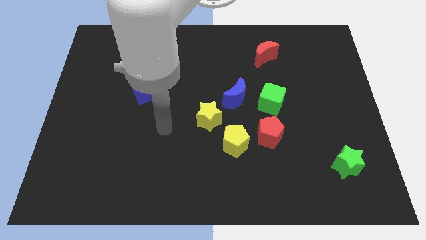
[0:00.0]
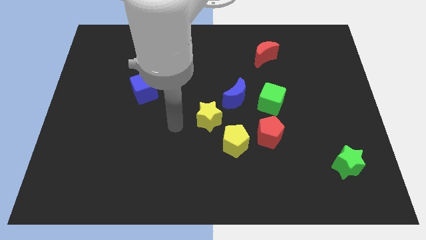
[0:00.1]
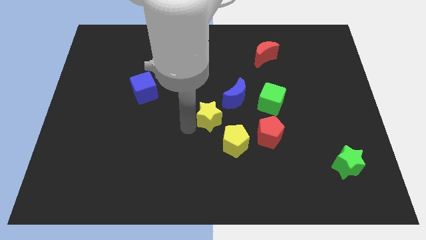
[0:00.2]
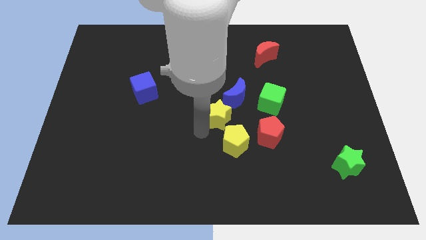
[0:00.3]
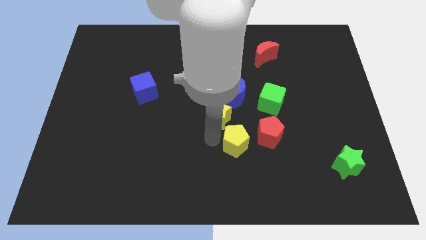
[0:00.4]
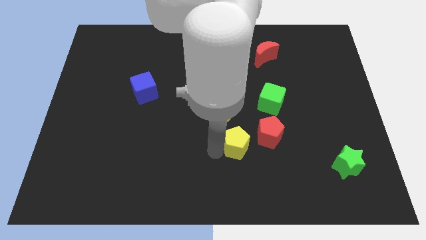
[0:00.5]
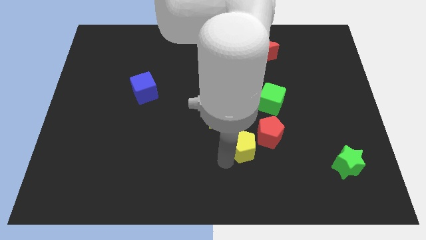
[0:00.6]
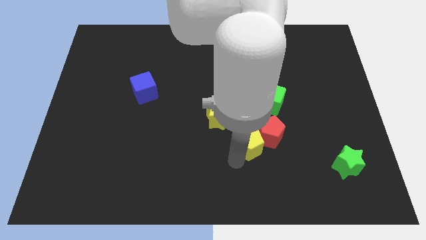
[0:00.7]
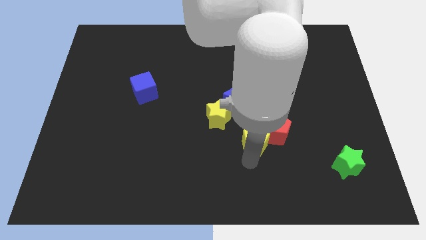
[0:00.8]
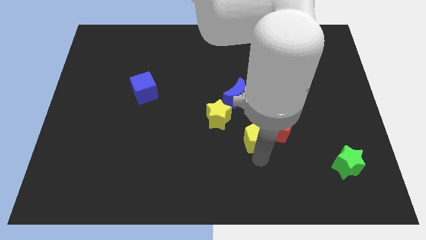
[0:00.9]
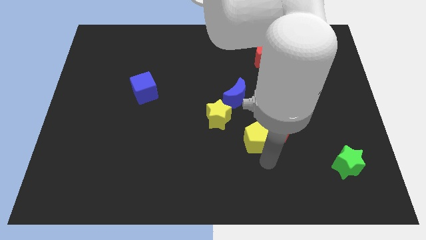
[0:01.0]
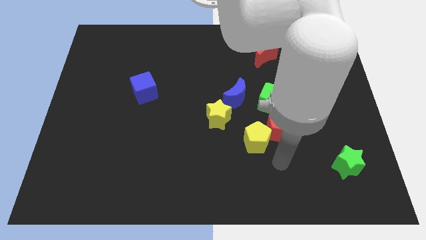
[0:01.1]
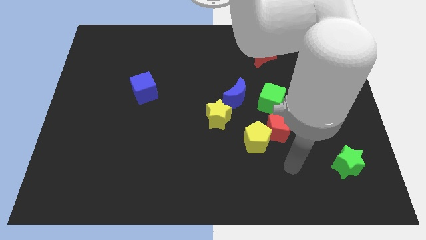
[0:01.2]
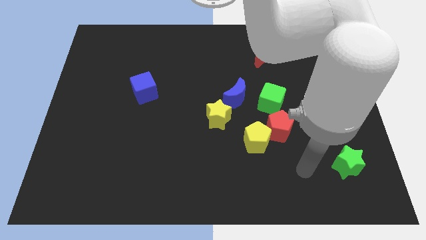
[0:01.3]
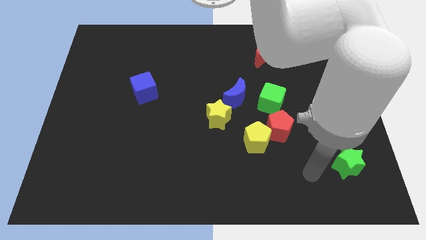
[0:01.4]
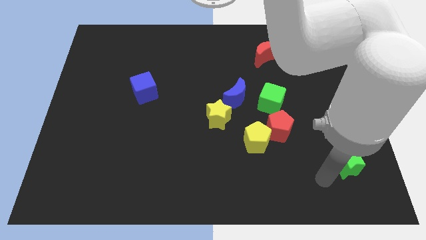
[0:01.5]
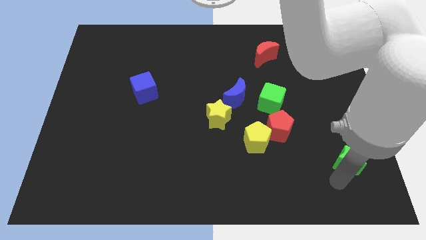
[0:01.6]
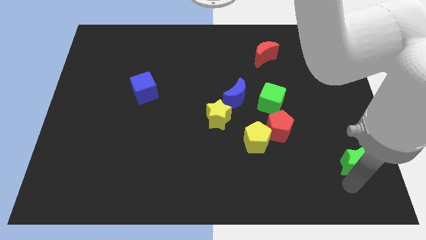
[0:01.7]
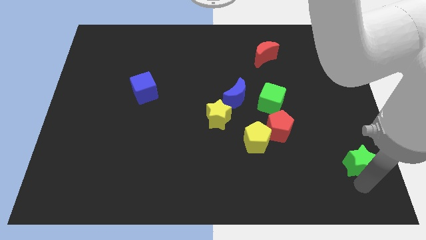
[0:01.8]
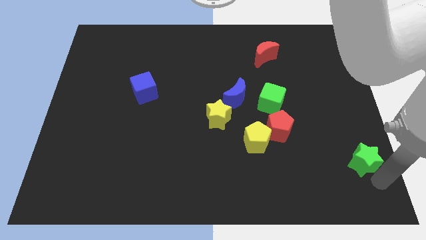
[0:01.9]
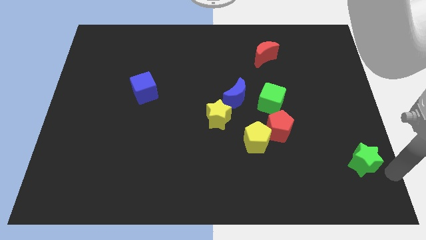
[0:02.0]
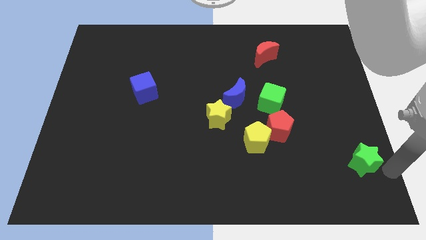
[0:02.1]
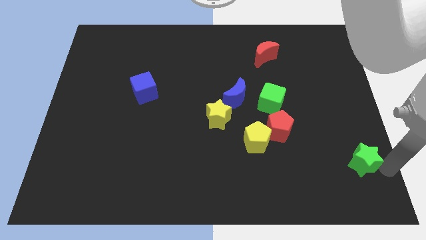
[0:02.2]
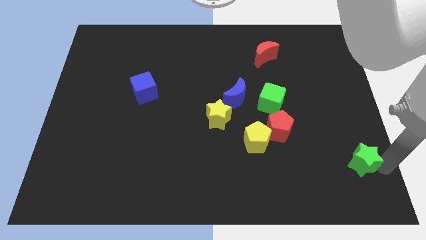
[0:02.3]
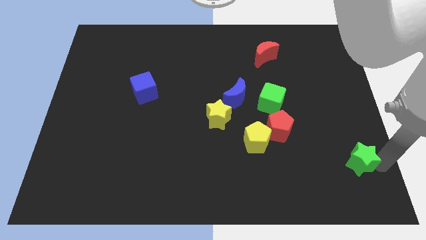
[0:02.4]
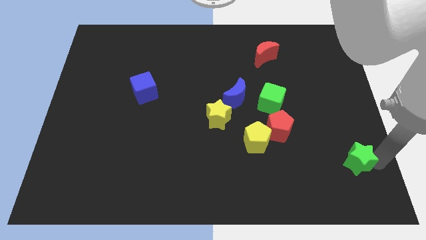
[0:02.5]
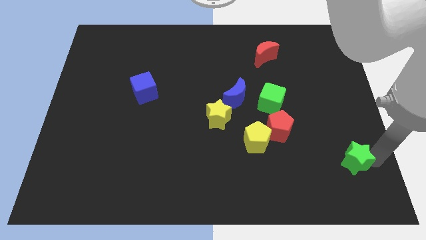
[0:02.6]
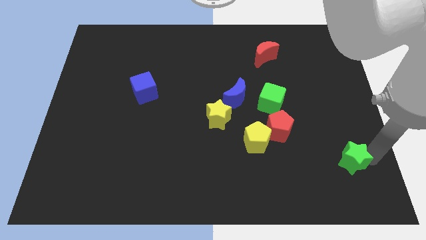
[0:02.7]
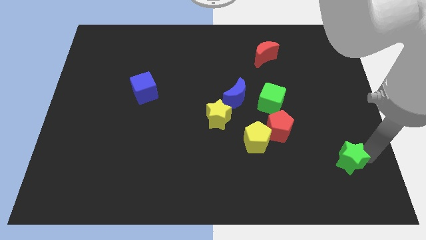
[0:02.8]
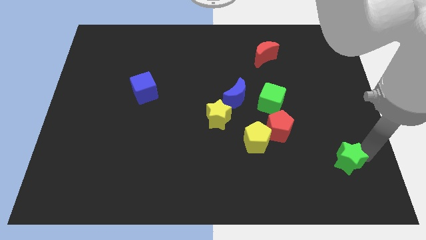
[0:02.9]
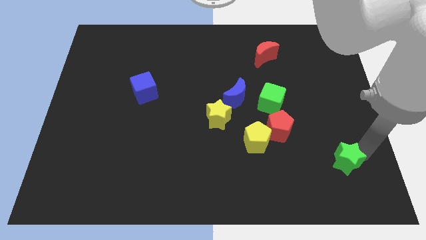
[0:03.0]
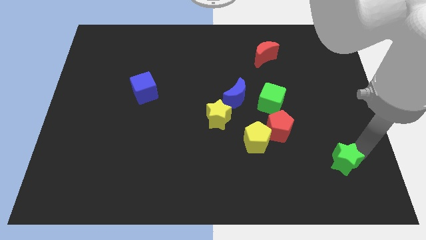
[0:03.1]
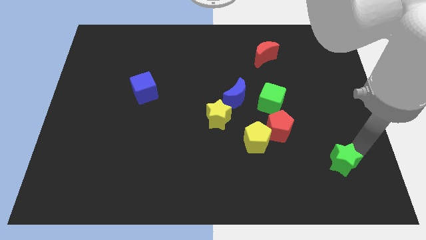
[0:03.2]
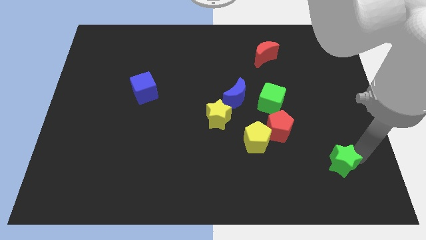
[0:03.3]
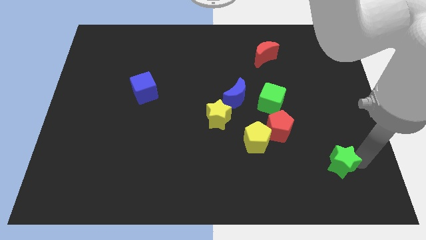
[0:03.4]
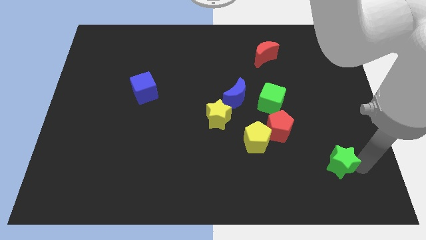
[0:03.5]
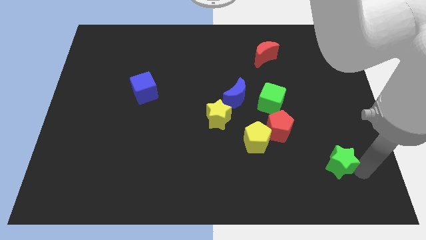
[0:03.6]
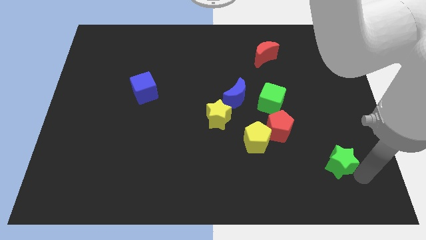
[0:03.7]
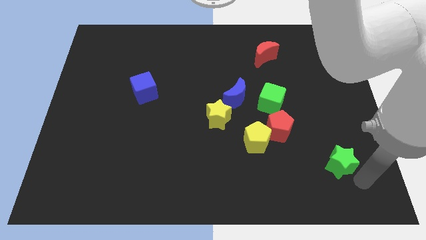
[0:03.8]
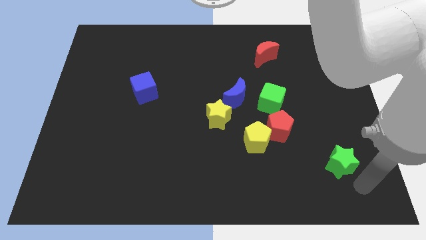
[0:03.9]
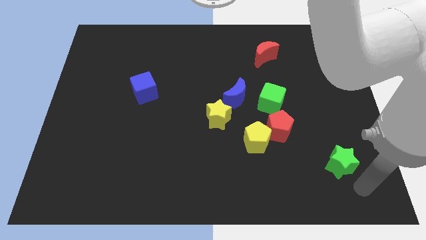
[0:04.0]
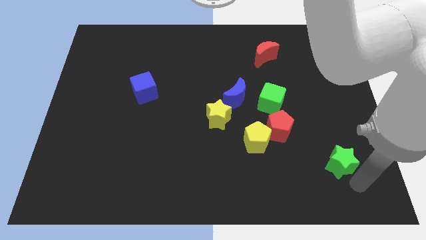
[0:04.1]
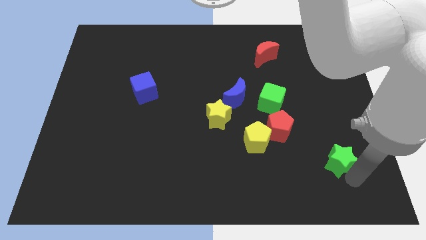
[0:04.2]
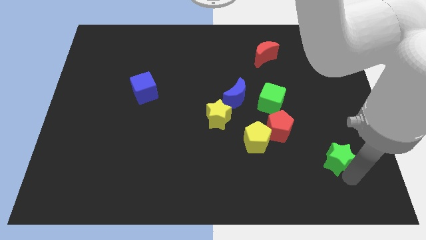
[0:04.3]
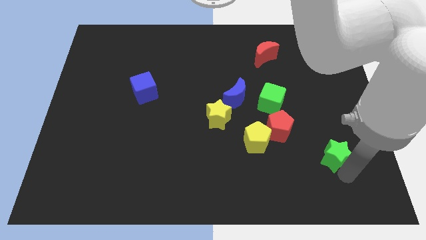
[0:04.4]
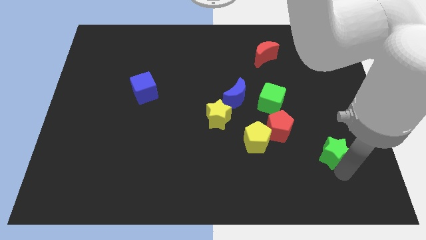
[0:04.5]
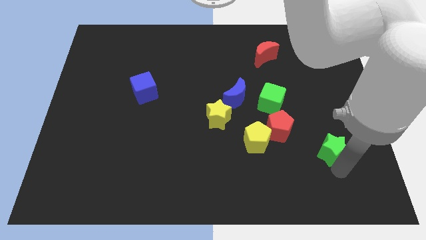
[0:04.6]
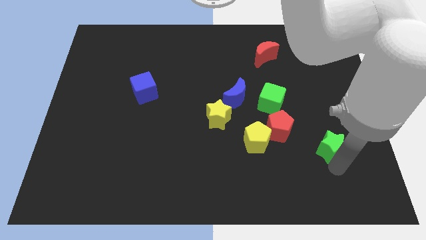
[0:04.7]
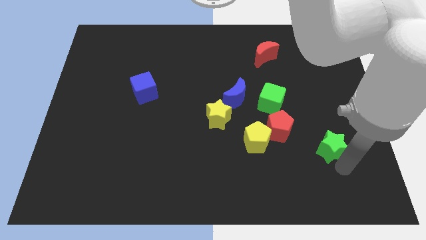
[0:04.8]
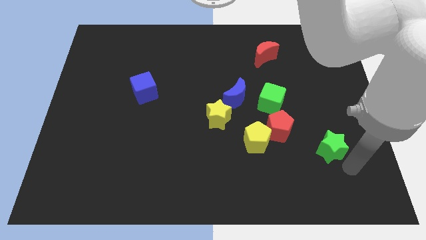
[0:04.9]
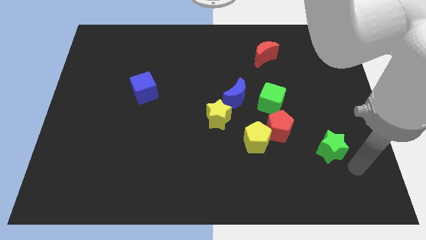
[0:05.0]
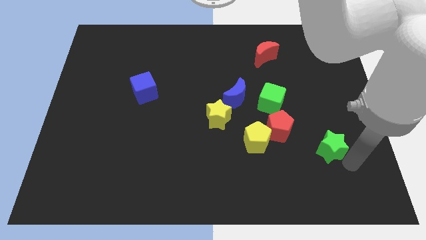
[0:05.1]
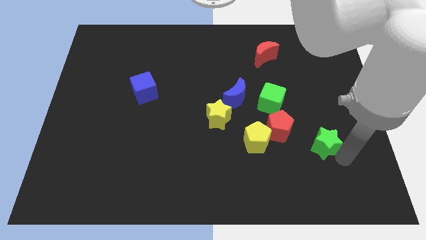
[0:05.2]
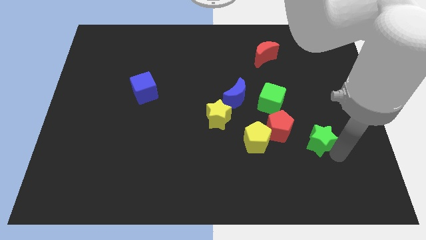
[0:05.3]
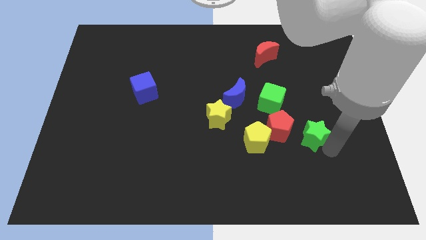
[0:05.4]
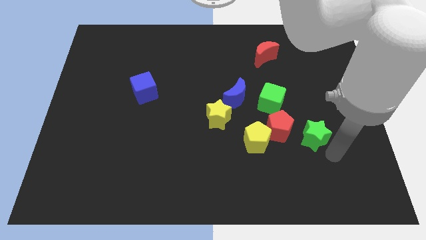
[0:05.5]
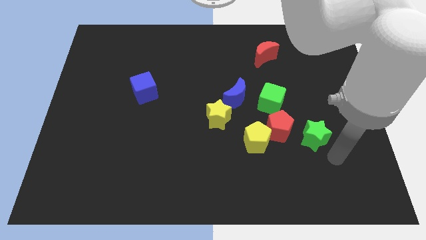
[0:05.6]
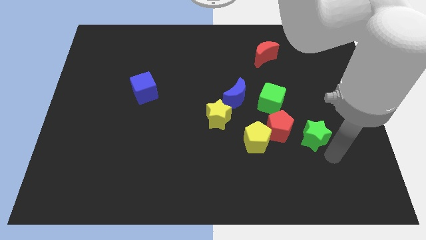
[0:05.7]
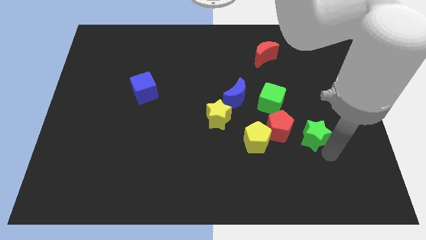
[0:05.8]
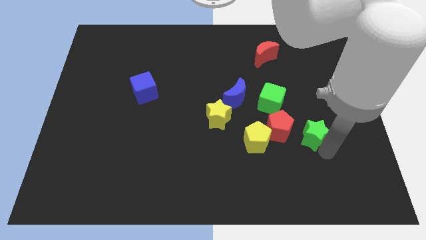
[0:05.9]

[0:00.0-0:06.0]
slide the green star diagonally down and to the right of the green cube

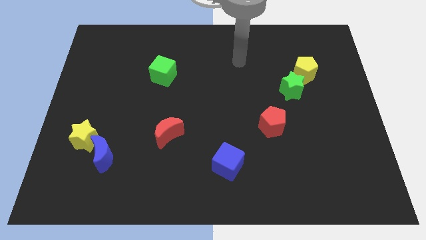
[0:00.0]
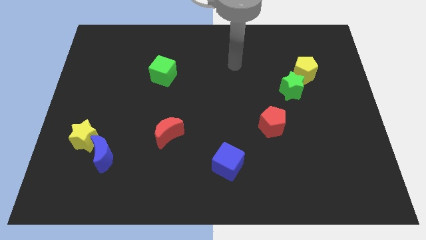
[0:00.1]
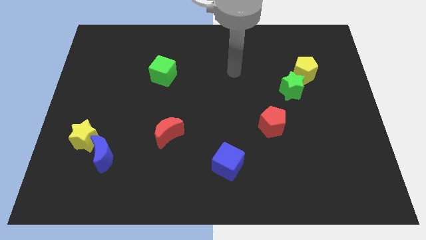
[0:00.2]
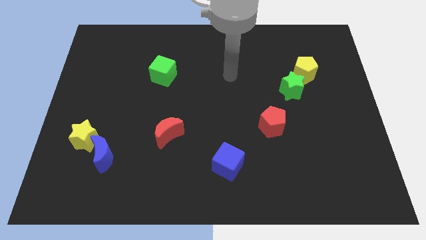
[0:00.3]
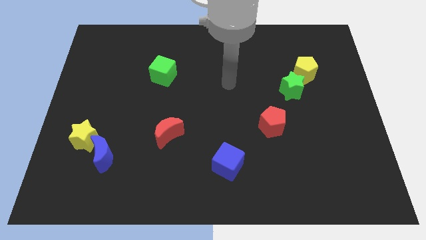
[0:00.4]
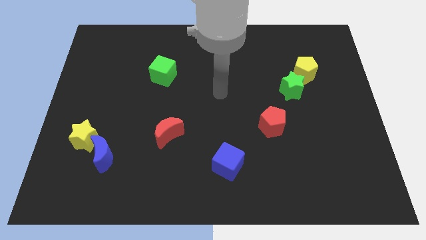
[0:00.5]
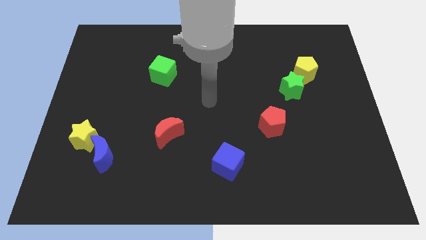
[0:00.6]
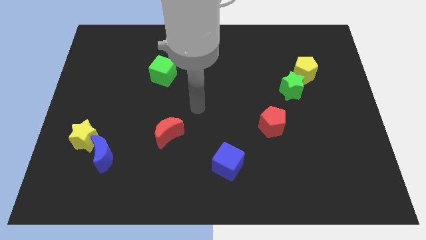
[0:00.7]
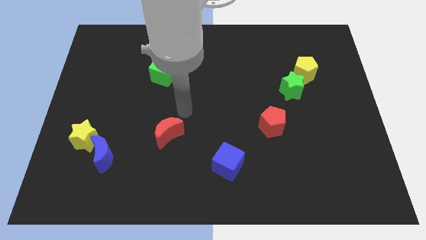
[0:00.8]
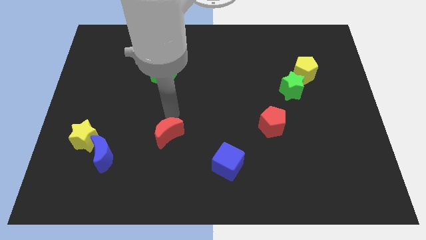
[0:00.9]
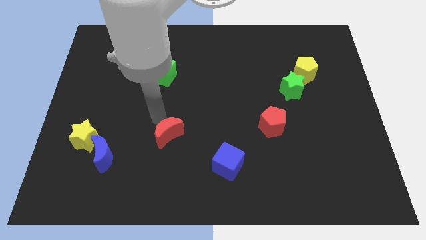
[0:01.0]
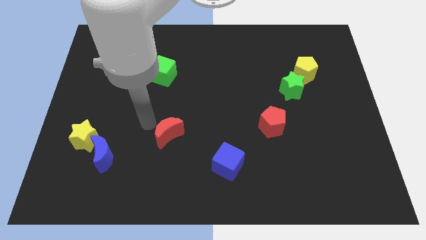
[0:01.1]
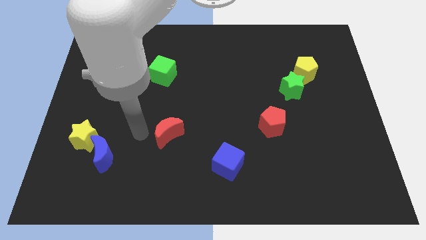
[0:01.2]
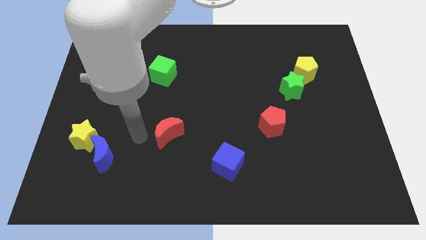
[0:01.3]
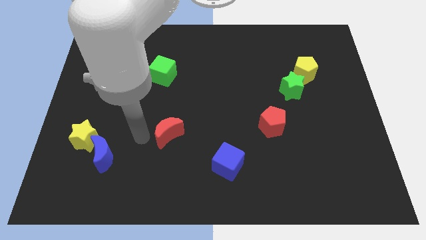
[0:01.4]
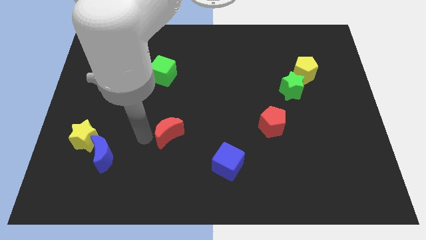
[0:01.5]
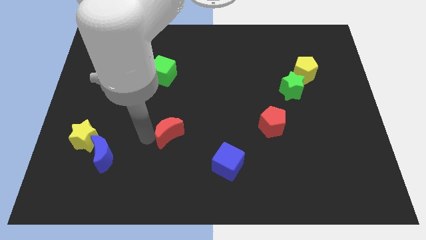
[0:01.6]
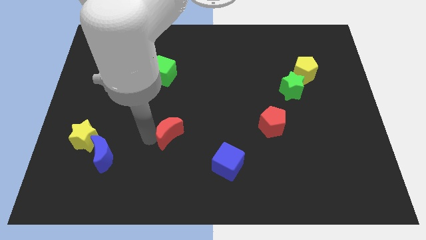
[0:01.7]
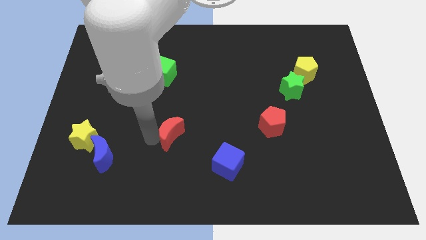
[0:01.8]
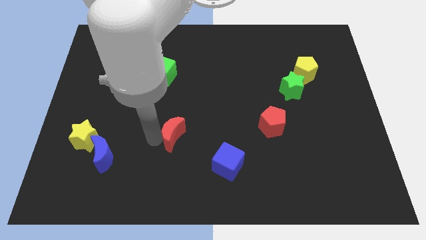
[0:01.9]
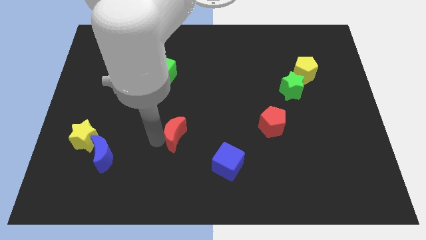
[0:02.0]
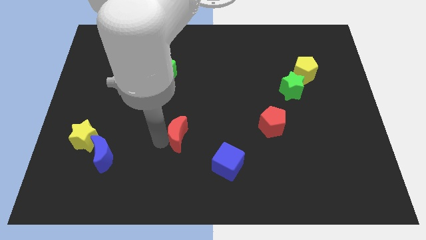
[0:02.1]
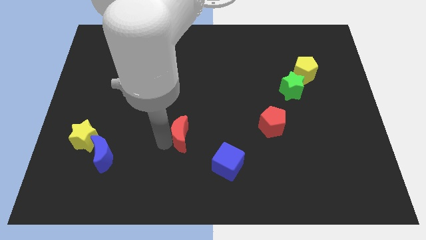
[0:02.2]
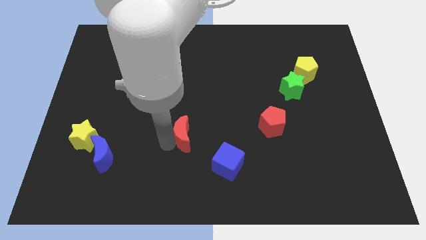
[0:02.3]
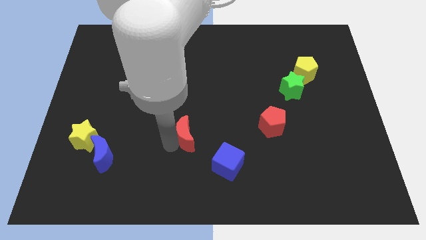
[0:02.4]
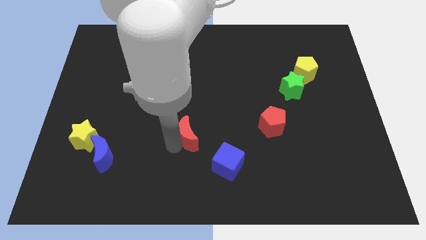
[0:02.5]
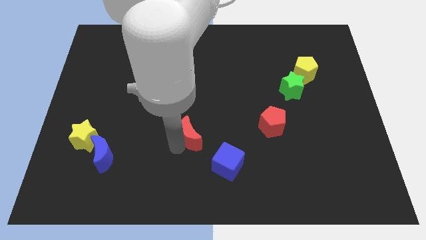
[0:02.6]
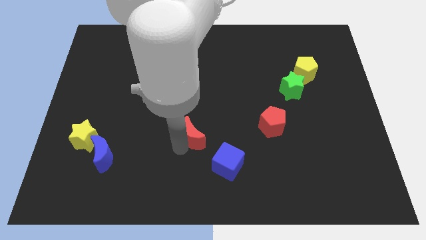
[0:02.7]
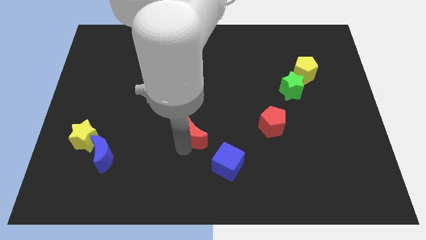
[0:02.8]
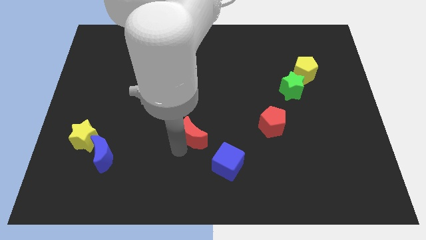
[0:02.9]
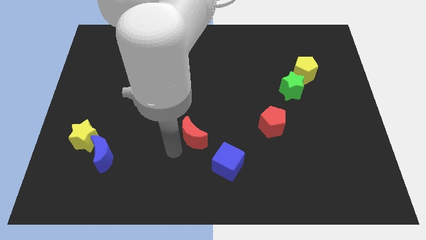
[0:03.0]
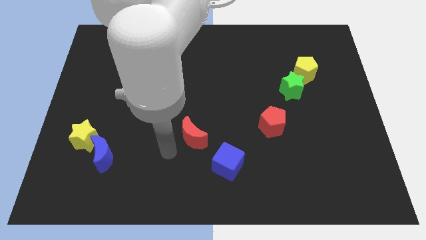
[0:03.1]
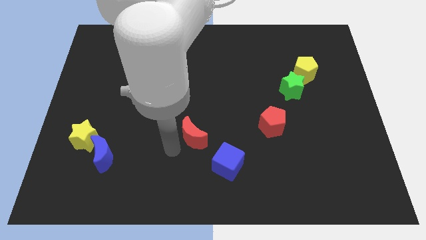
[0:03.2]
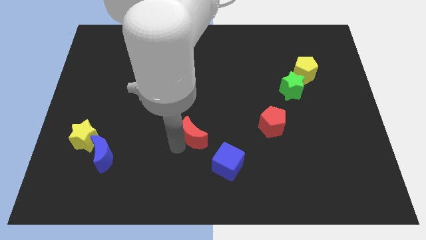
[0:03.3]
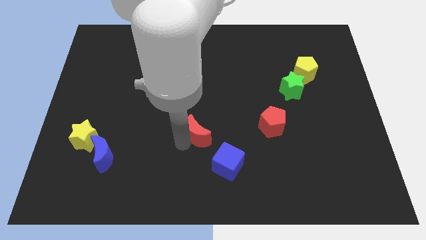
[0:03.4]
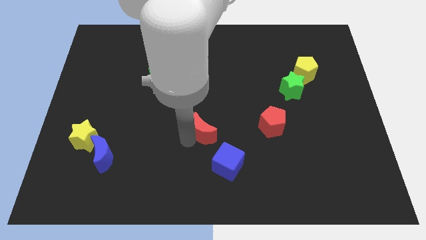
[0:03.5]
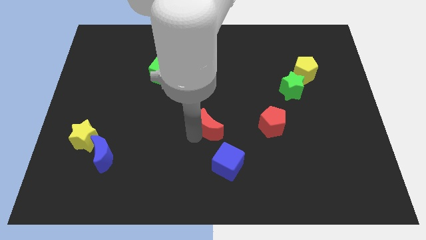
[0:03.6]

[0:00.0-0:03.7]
move the red moon above the blue cube
